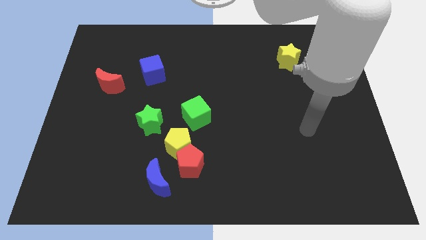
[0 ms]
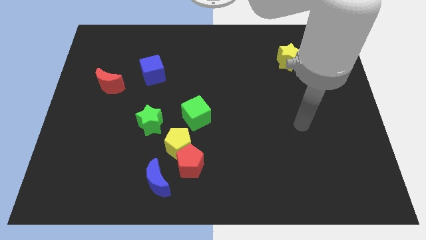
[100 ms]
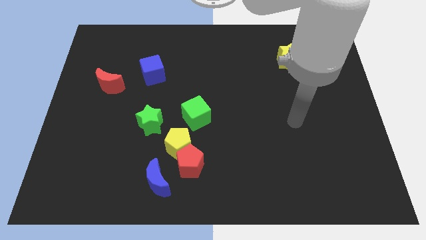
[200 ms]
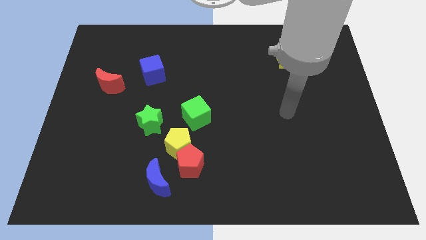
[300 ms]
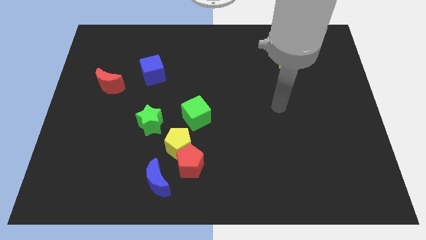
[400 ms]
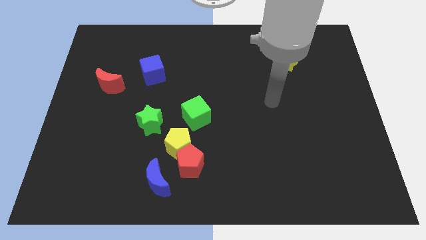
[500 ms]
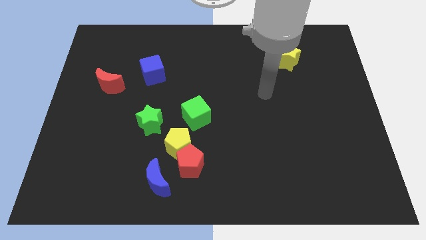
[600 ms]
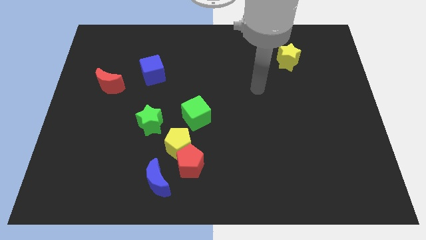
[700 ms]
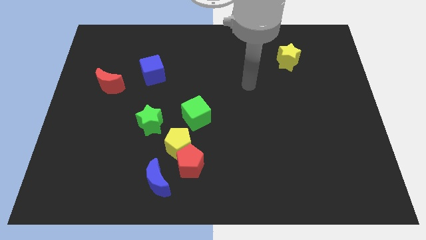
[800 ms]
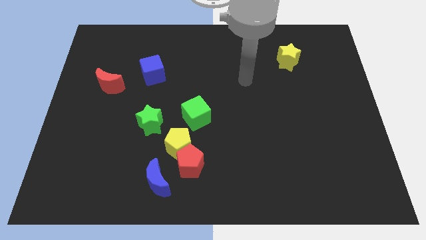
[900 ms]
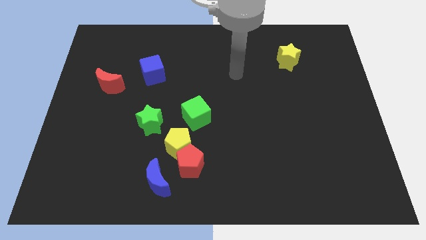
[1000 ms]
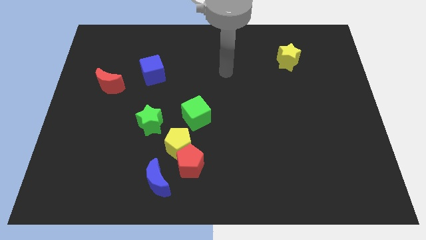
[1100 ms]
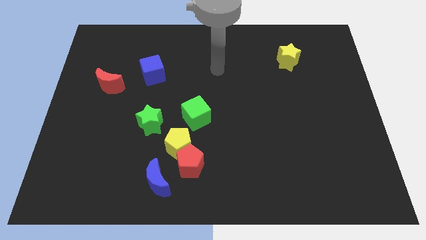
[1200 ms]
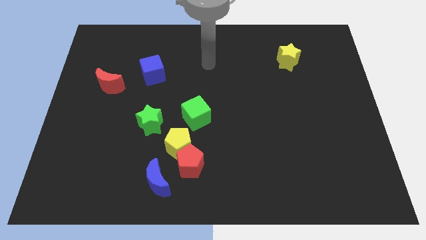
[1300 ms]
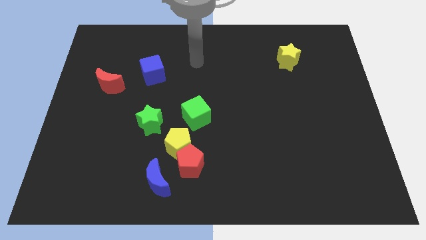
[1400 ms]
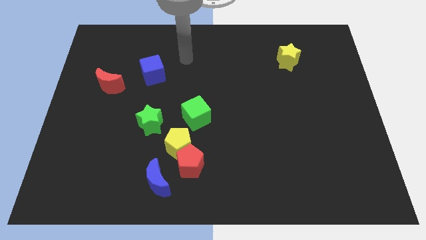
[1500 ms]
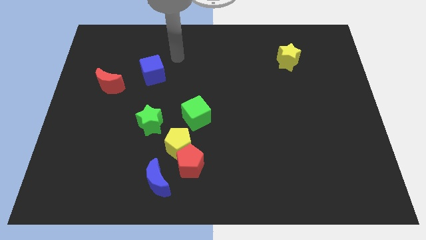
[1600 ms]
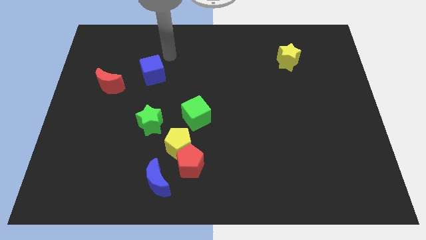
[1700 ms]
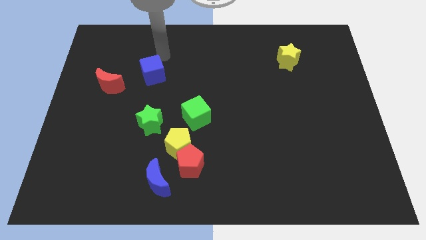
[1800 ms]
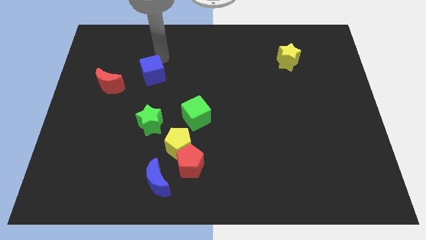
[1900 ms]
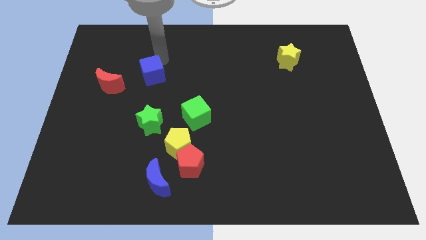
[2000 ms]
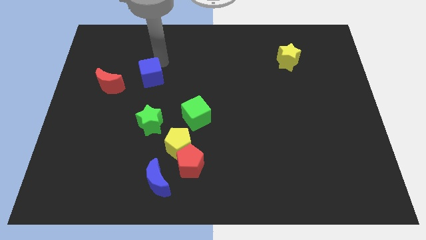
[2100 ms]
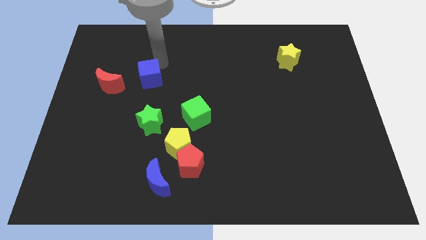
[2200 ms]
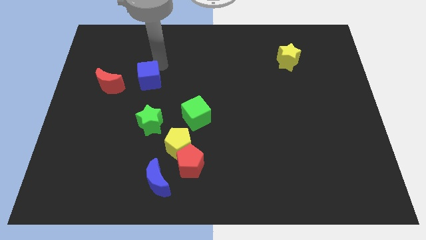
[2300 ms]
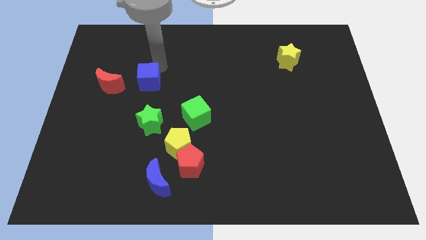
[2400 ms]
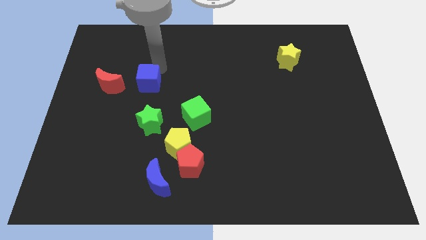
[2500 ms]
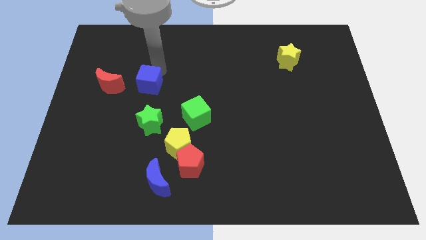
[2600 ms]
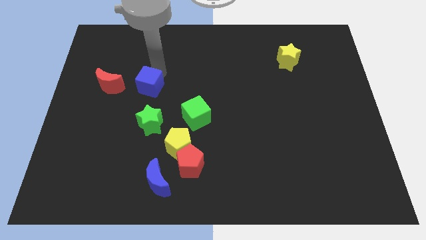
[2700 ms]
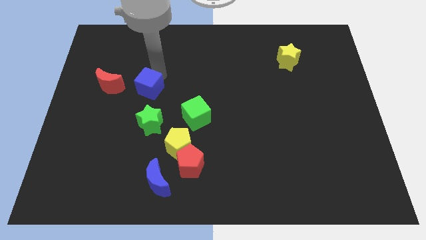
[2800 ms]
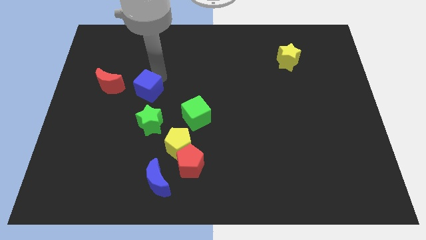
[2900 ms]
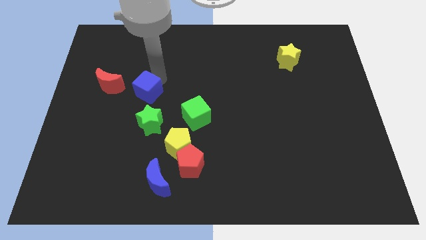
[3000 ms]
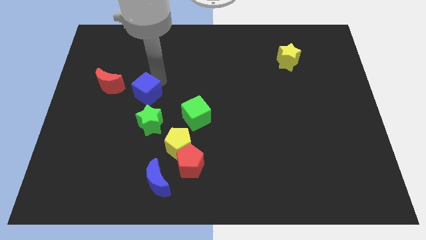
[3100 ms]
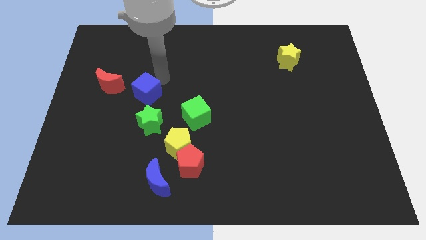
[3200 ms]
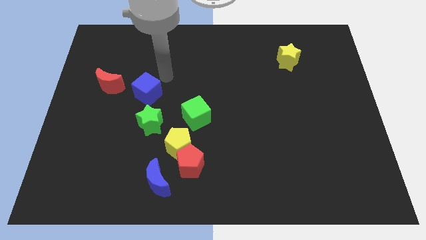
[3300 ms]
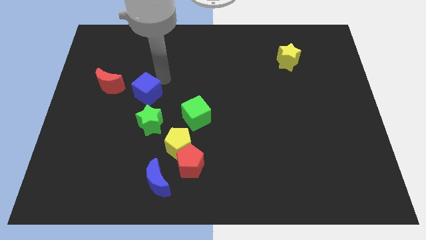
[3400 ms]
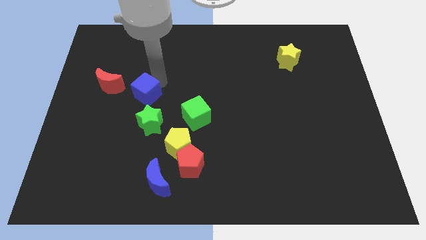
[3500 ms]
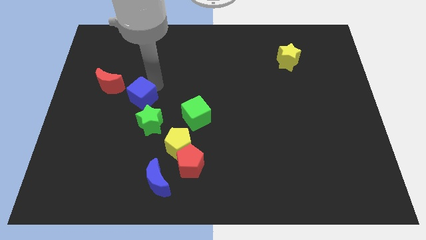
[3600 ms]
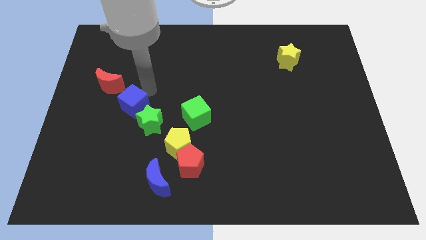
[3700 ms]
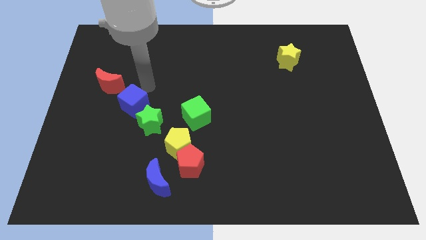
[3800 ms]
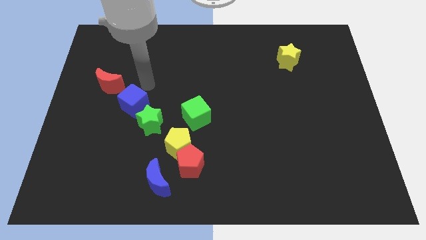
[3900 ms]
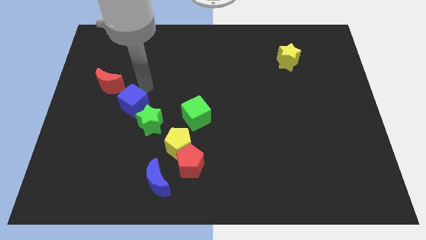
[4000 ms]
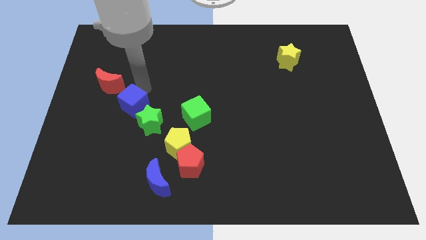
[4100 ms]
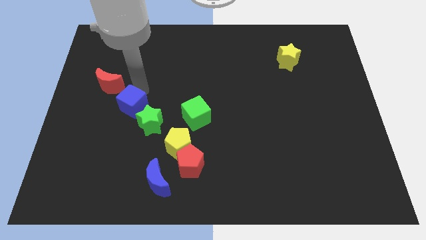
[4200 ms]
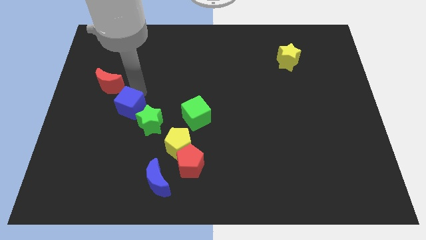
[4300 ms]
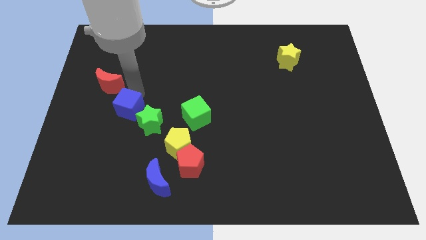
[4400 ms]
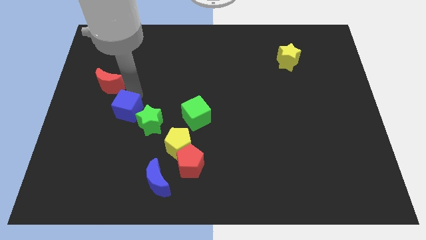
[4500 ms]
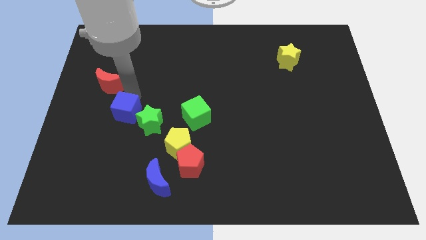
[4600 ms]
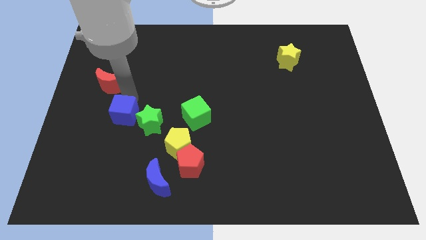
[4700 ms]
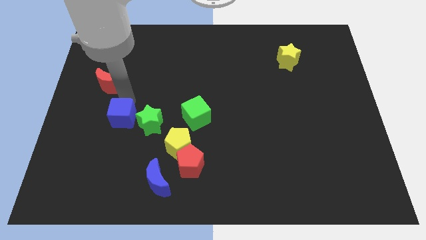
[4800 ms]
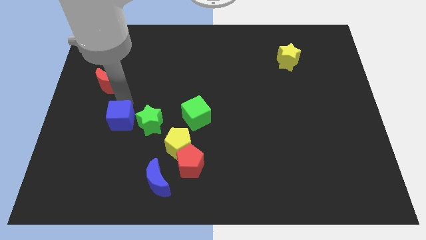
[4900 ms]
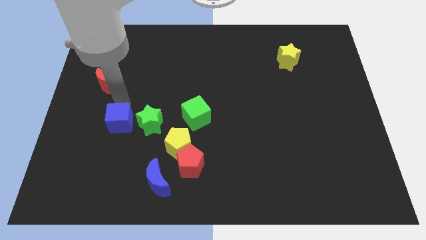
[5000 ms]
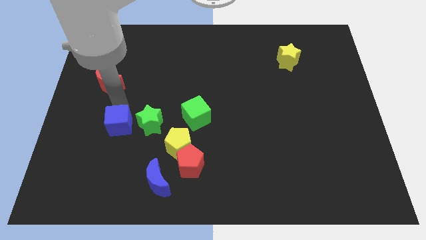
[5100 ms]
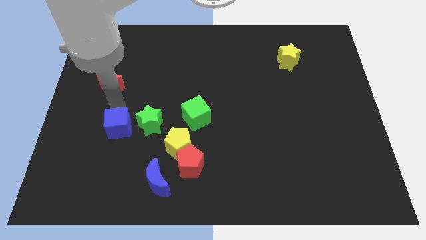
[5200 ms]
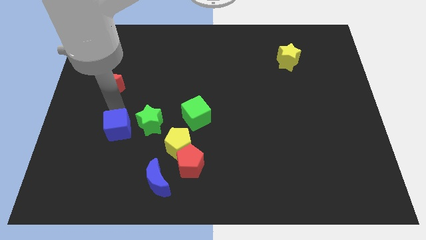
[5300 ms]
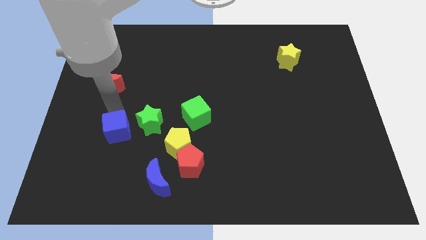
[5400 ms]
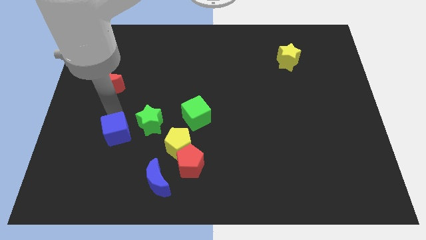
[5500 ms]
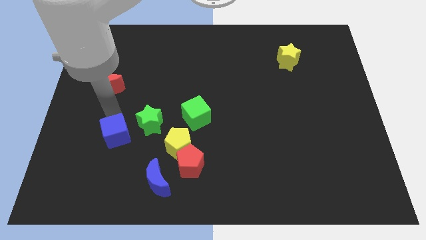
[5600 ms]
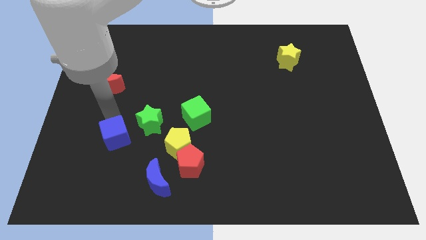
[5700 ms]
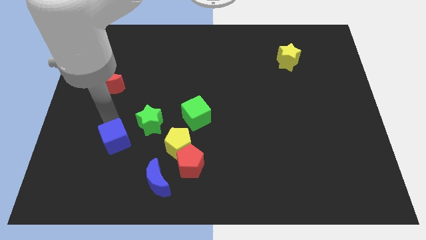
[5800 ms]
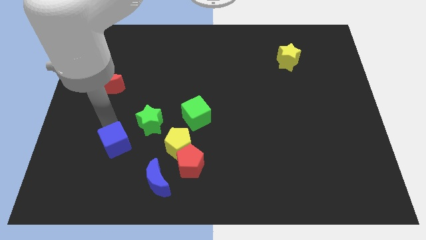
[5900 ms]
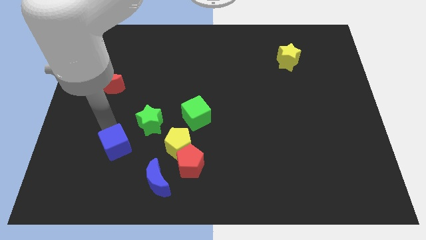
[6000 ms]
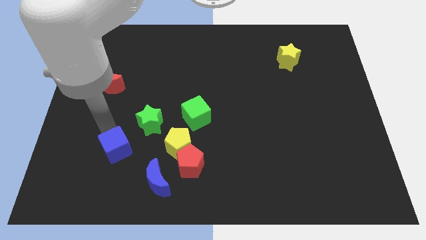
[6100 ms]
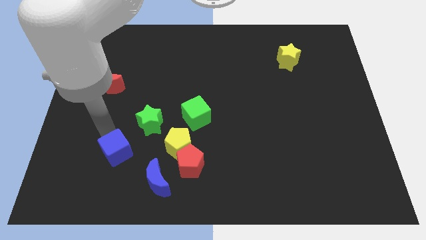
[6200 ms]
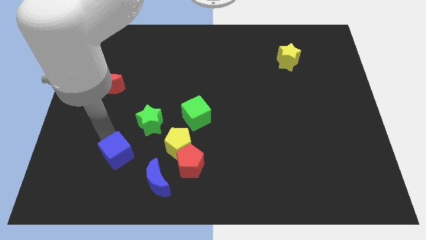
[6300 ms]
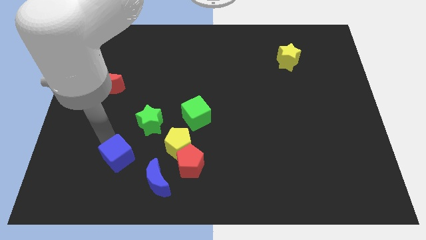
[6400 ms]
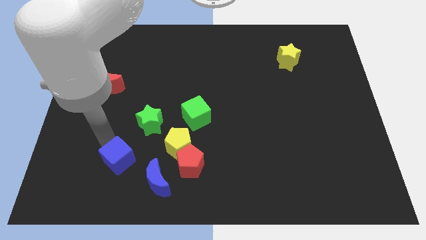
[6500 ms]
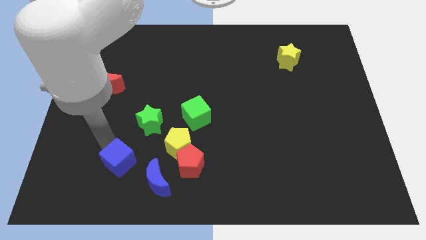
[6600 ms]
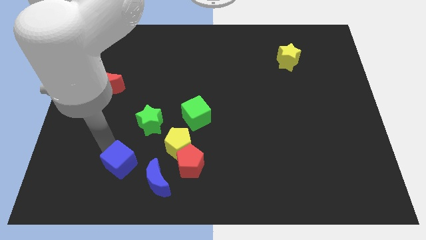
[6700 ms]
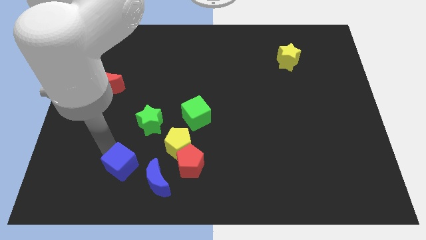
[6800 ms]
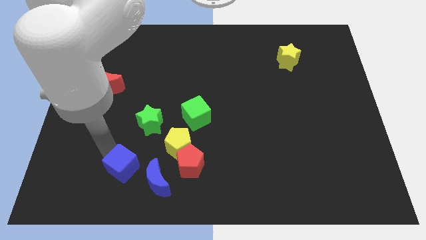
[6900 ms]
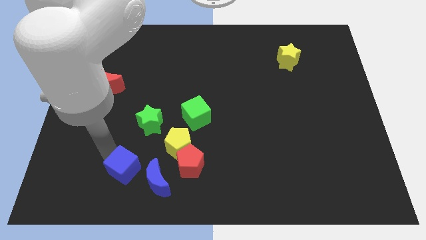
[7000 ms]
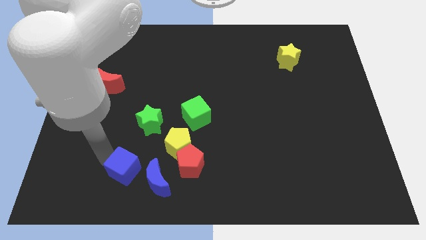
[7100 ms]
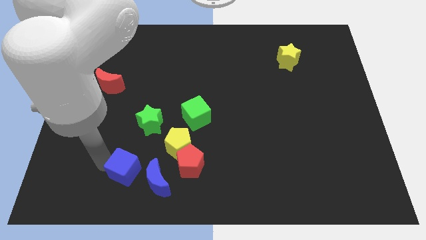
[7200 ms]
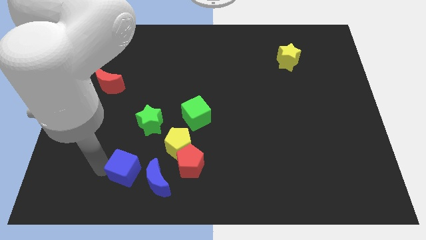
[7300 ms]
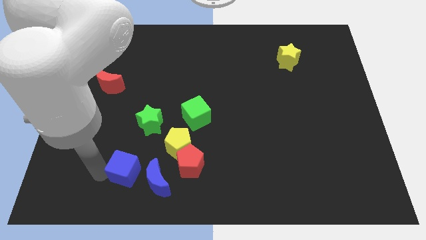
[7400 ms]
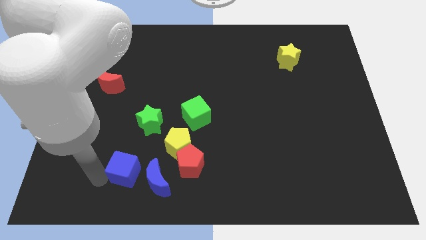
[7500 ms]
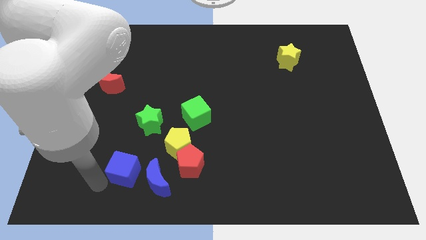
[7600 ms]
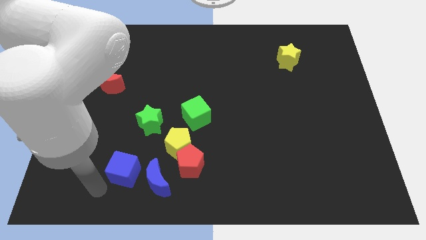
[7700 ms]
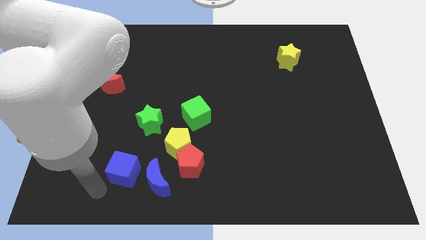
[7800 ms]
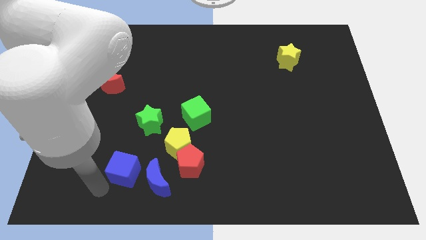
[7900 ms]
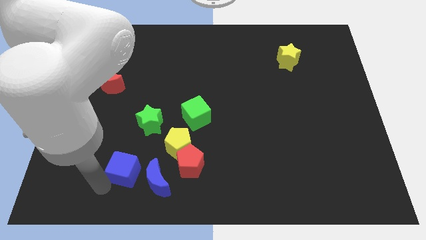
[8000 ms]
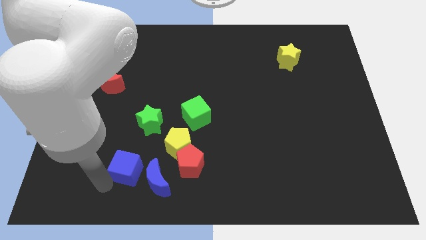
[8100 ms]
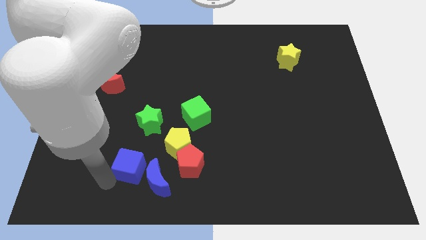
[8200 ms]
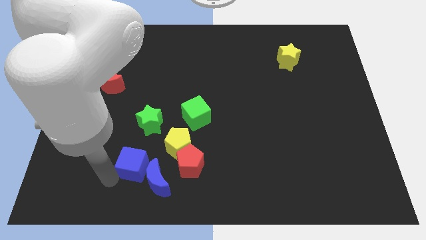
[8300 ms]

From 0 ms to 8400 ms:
slide the blue cube to the blue moon
